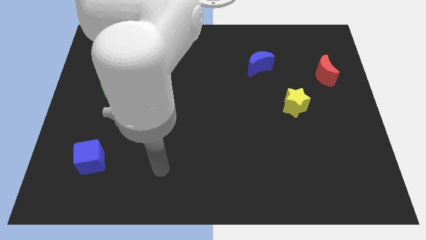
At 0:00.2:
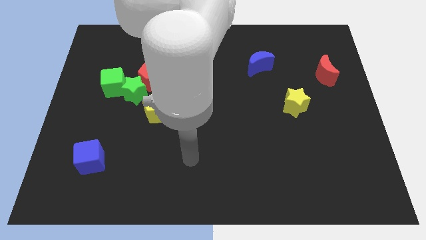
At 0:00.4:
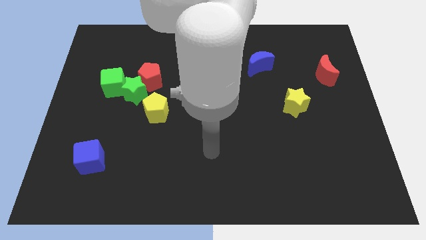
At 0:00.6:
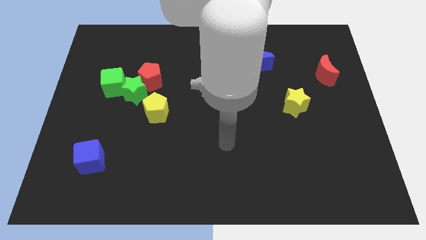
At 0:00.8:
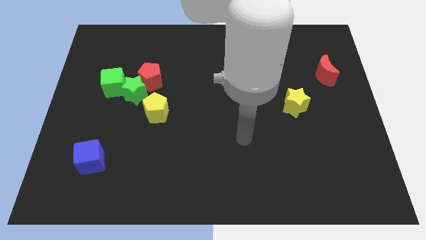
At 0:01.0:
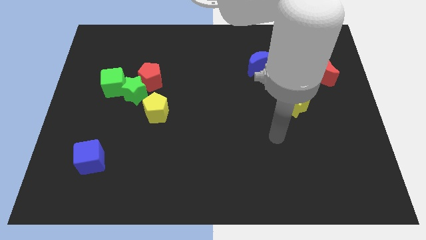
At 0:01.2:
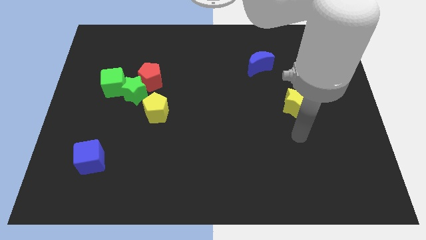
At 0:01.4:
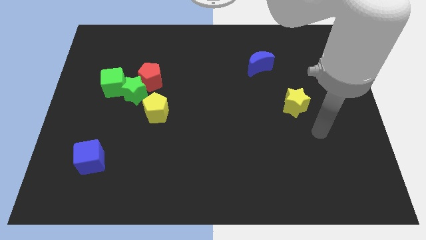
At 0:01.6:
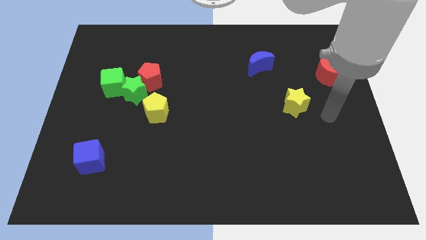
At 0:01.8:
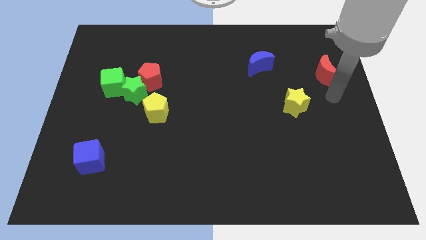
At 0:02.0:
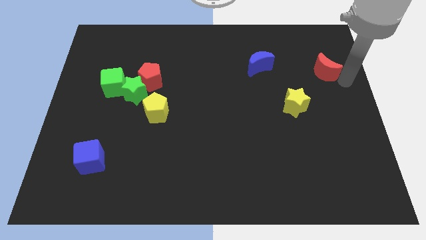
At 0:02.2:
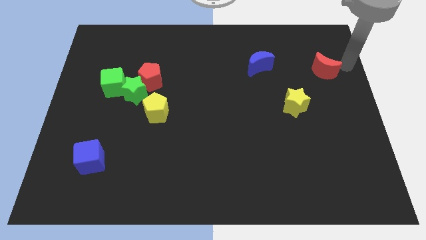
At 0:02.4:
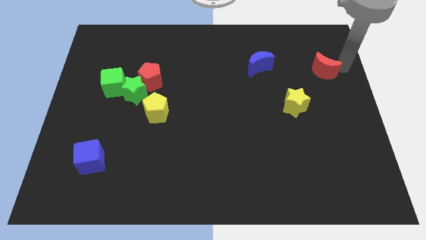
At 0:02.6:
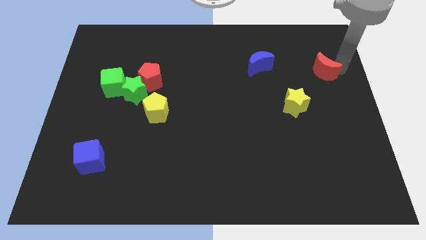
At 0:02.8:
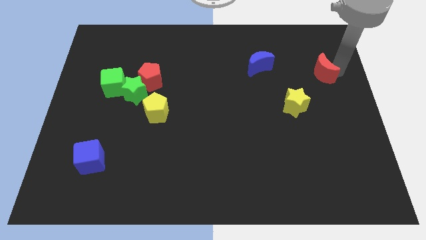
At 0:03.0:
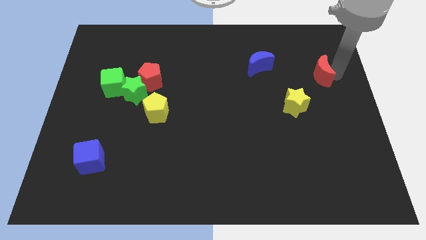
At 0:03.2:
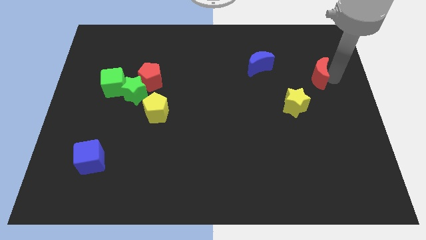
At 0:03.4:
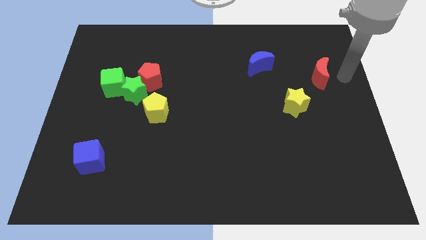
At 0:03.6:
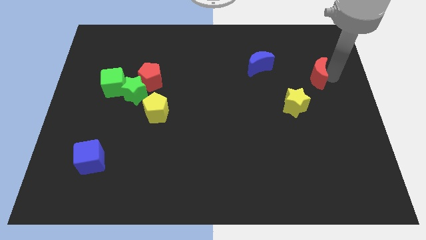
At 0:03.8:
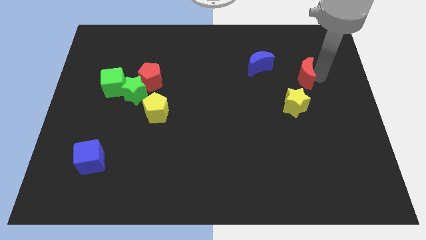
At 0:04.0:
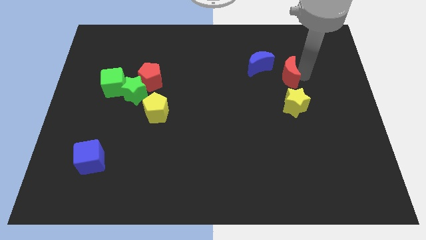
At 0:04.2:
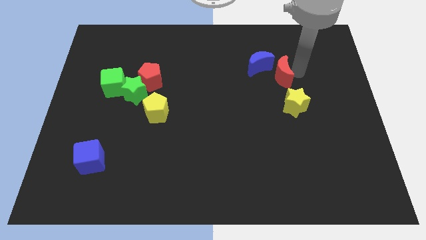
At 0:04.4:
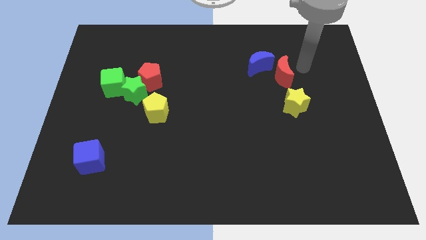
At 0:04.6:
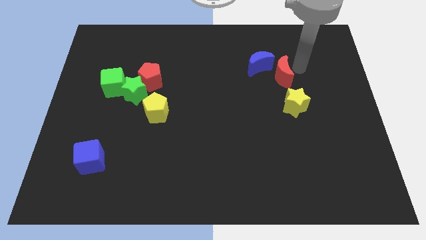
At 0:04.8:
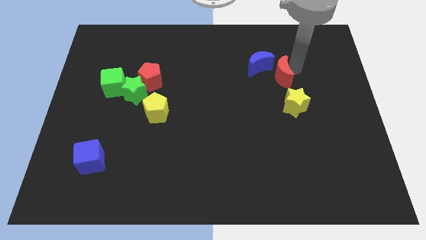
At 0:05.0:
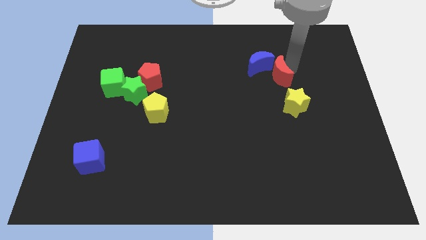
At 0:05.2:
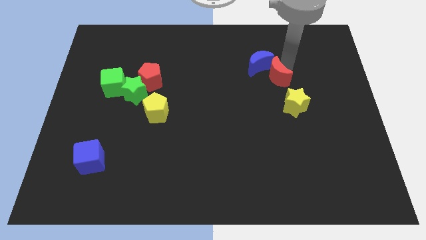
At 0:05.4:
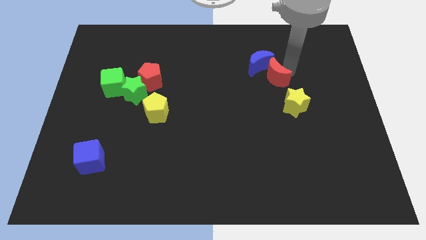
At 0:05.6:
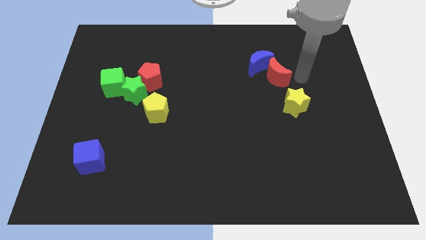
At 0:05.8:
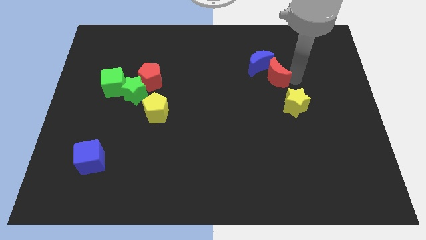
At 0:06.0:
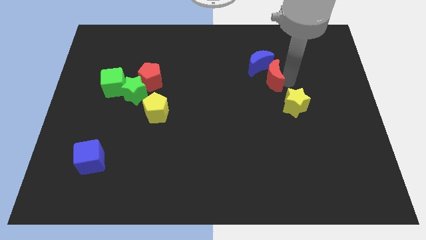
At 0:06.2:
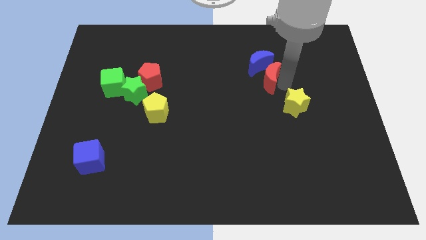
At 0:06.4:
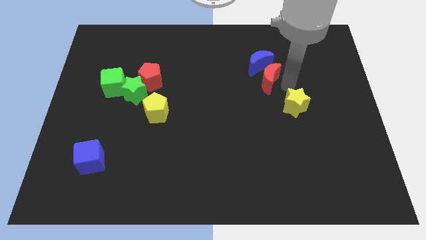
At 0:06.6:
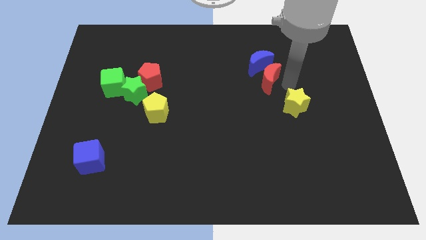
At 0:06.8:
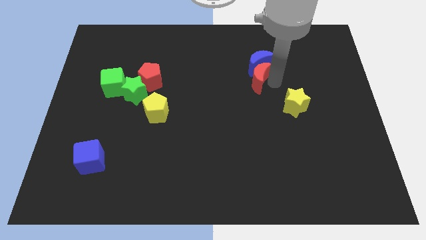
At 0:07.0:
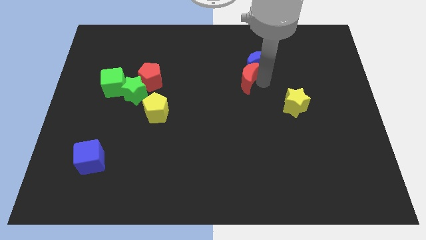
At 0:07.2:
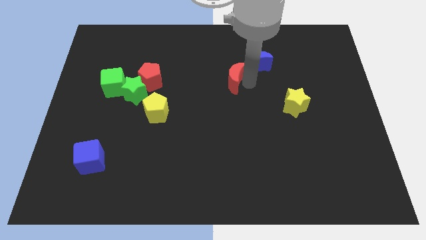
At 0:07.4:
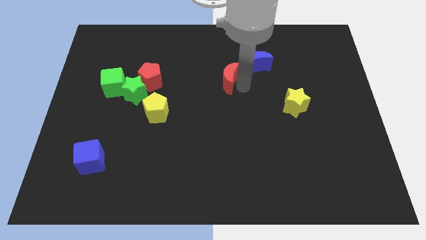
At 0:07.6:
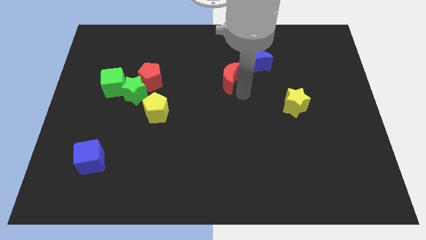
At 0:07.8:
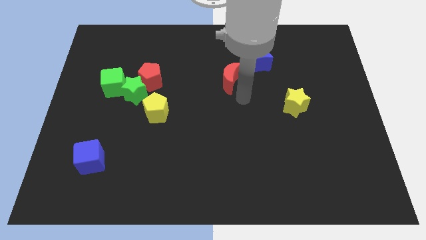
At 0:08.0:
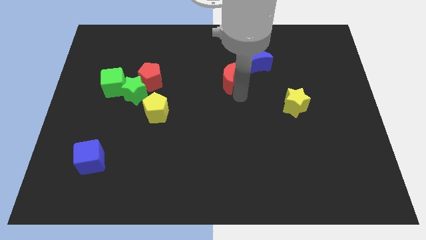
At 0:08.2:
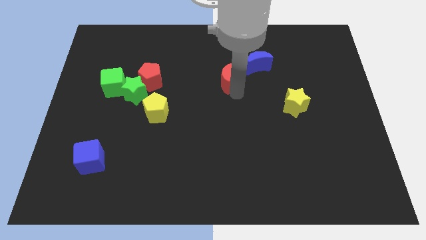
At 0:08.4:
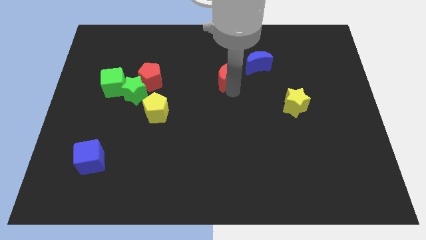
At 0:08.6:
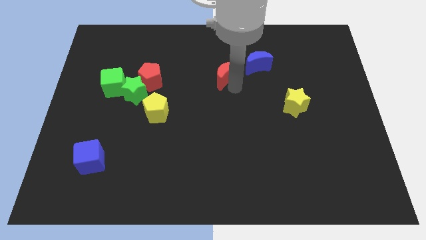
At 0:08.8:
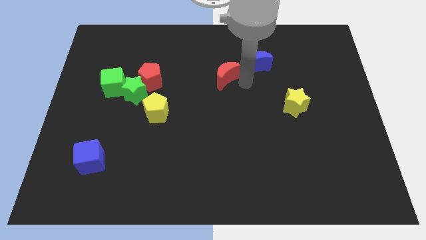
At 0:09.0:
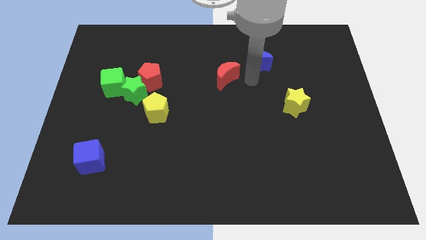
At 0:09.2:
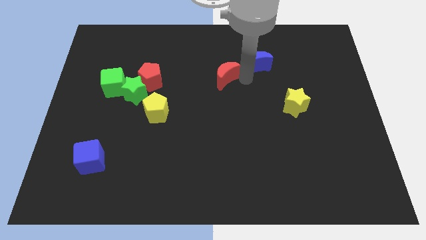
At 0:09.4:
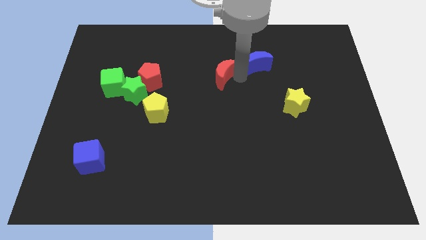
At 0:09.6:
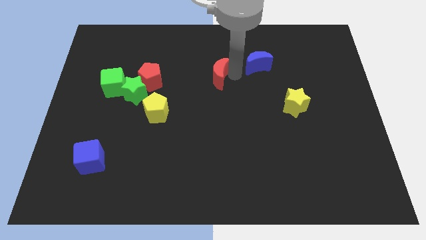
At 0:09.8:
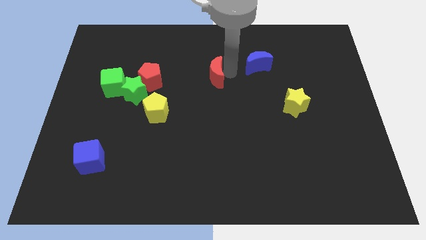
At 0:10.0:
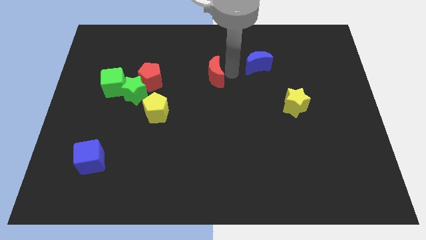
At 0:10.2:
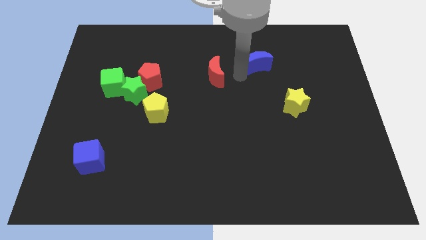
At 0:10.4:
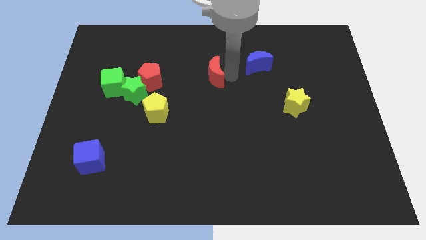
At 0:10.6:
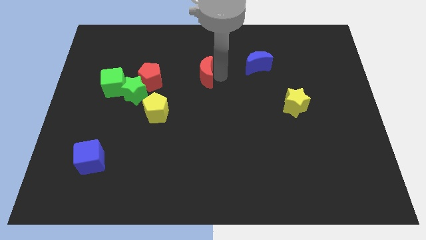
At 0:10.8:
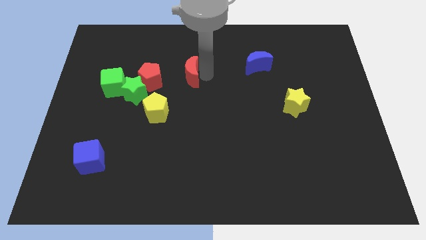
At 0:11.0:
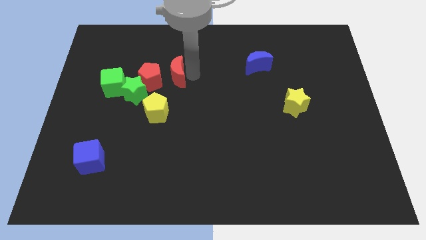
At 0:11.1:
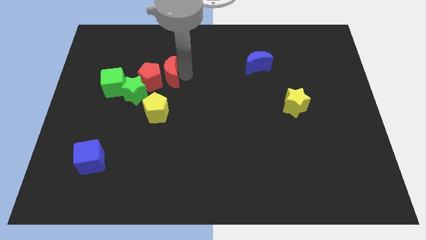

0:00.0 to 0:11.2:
put the red moon towards the red pentagon

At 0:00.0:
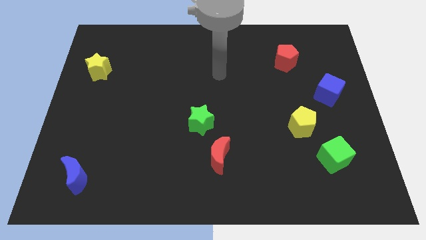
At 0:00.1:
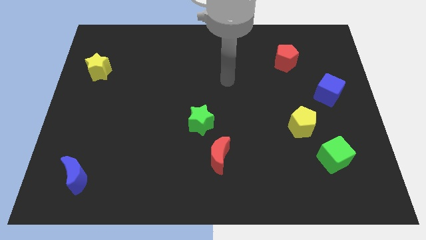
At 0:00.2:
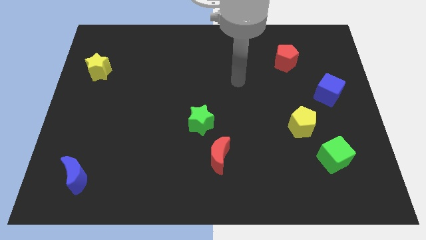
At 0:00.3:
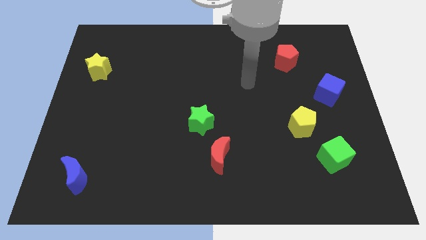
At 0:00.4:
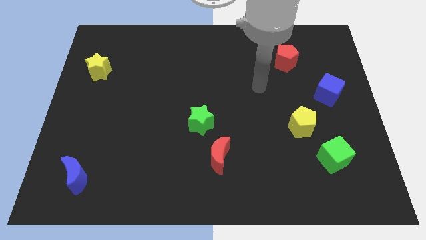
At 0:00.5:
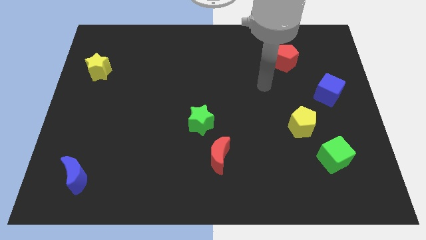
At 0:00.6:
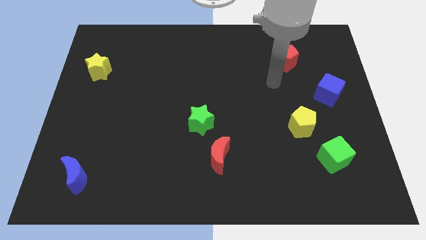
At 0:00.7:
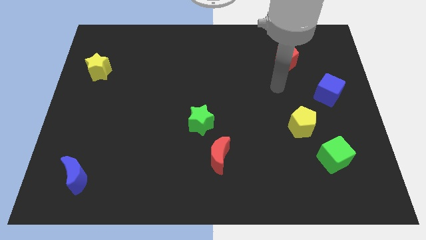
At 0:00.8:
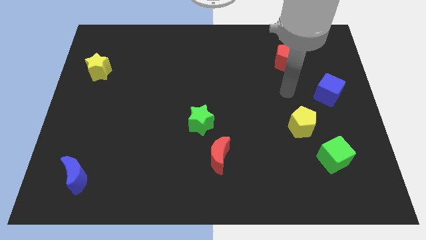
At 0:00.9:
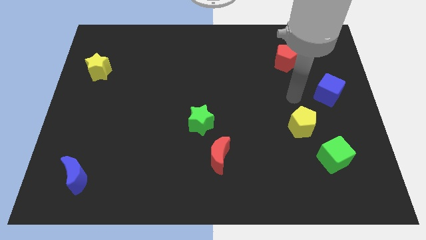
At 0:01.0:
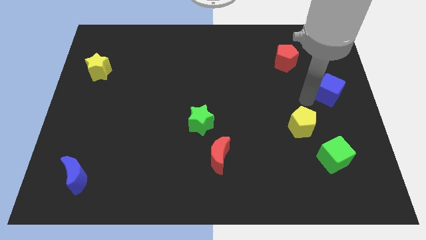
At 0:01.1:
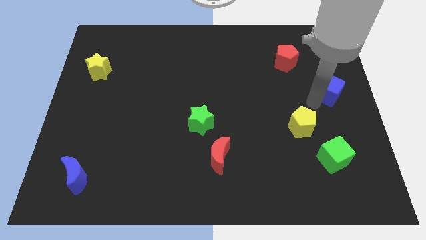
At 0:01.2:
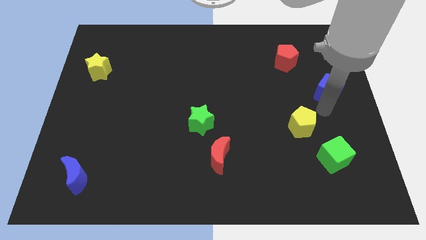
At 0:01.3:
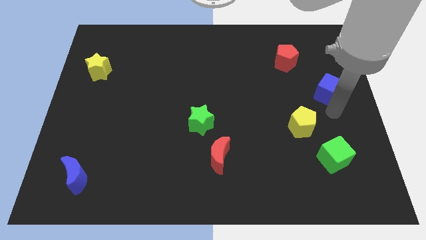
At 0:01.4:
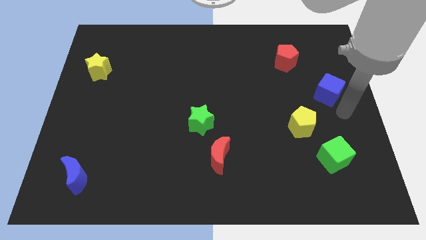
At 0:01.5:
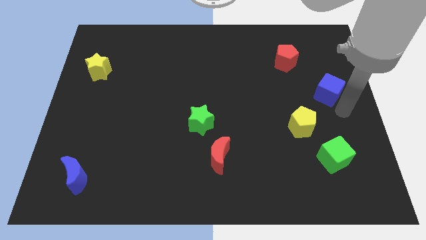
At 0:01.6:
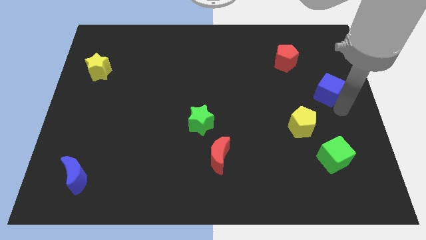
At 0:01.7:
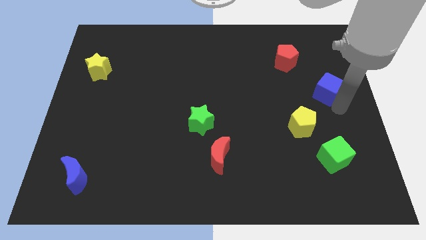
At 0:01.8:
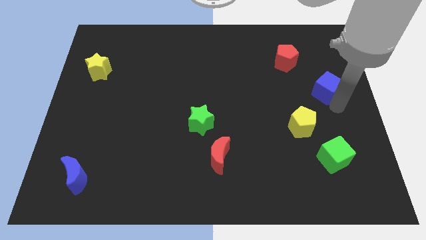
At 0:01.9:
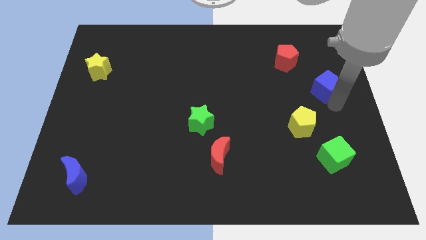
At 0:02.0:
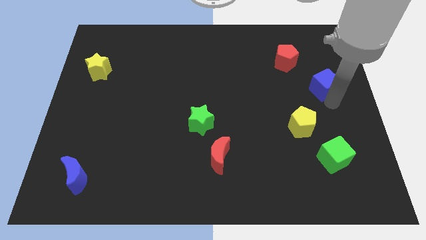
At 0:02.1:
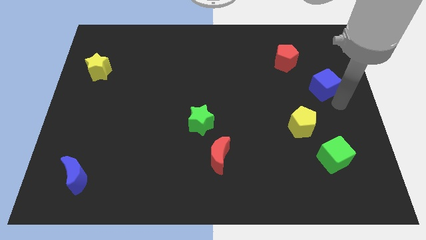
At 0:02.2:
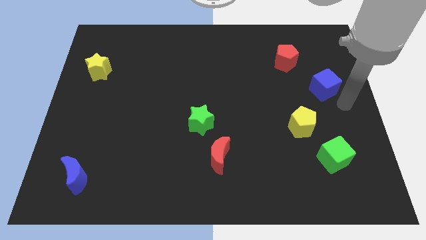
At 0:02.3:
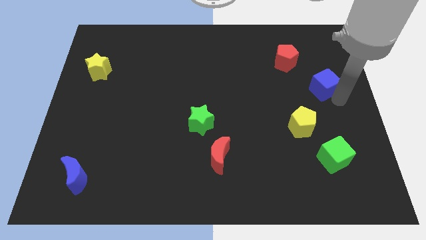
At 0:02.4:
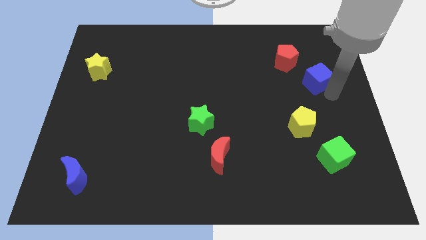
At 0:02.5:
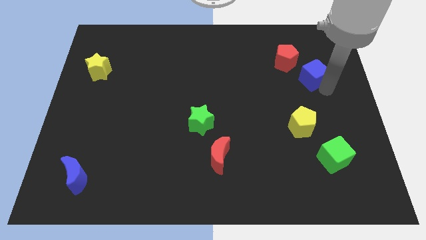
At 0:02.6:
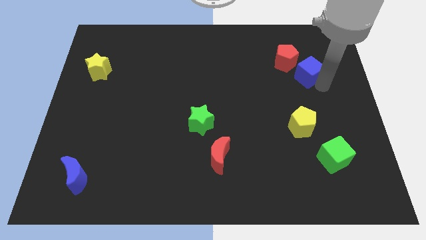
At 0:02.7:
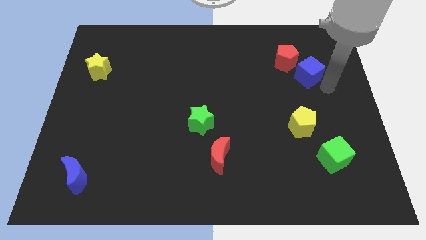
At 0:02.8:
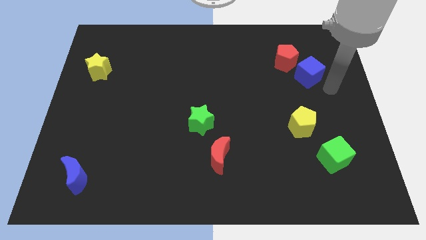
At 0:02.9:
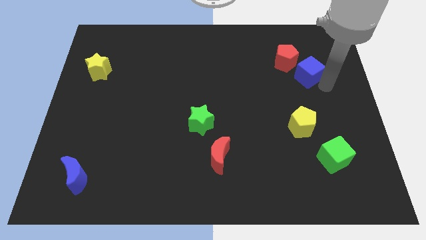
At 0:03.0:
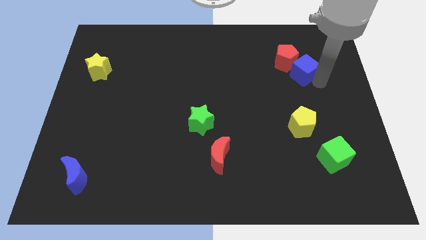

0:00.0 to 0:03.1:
put the blue cube close to the red pentagon
